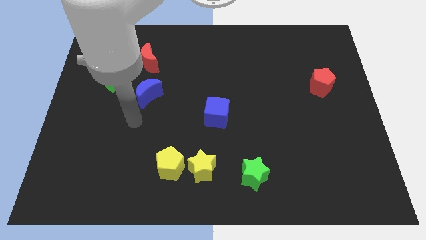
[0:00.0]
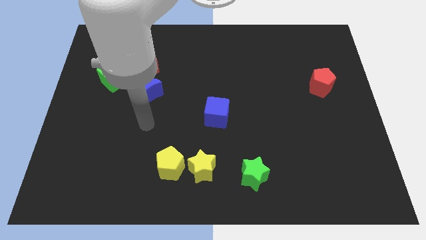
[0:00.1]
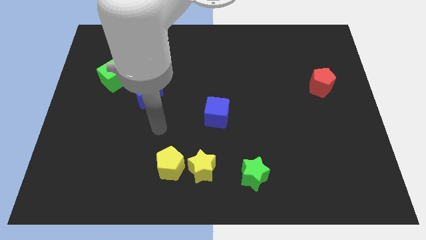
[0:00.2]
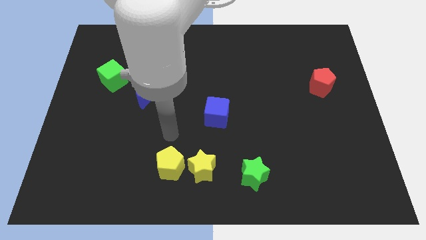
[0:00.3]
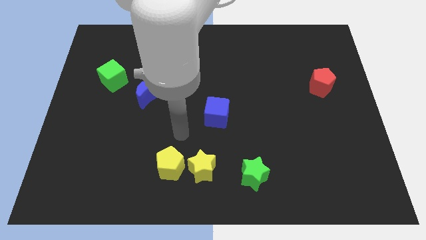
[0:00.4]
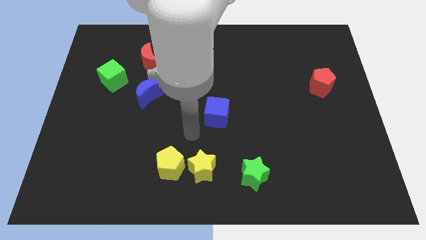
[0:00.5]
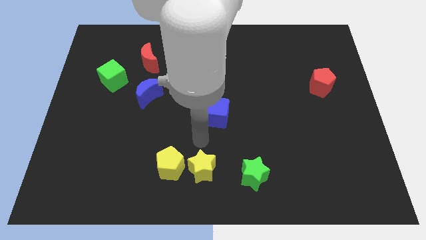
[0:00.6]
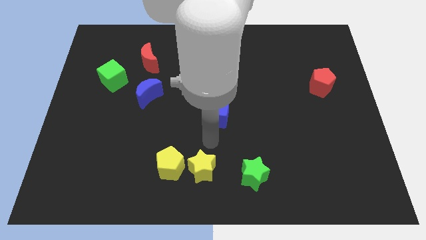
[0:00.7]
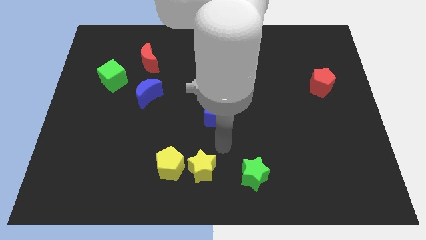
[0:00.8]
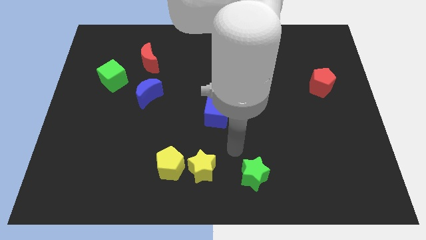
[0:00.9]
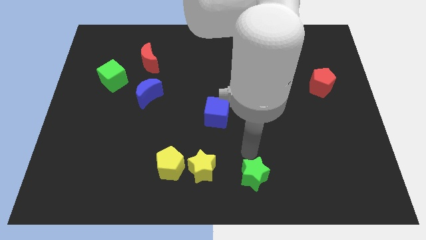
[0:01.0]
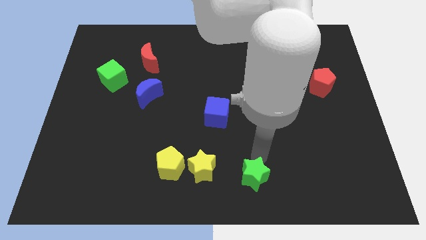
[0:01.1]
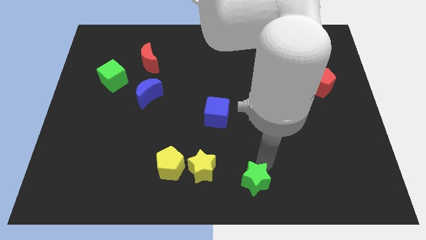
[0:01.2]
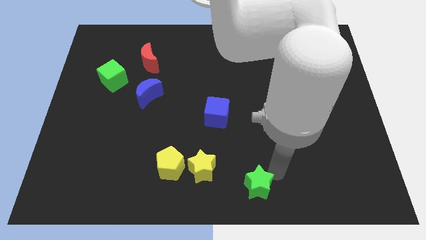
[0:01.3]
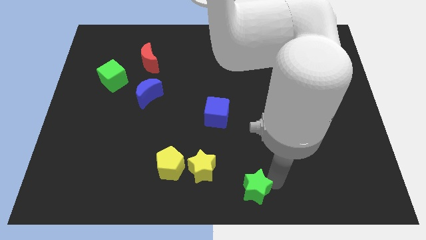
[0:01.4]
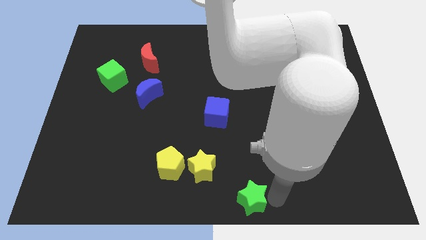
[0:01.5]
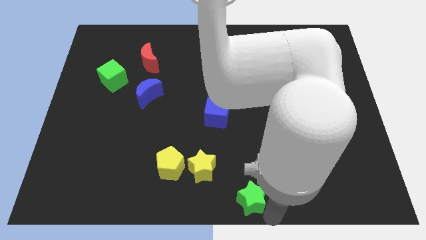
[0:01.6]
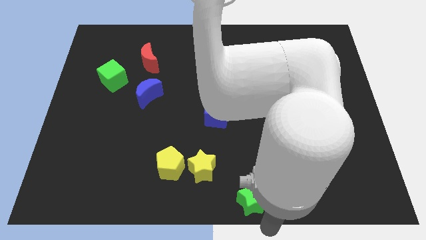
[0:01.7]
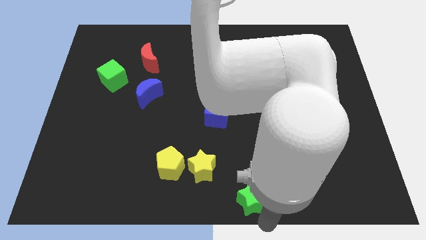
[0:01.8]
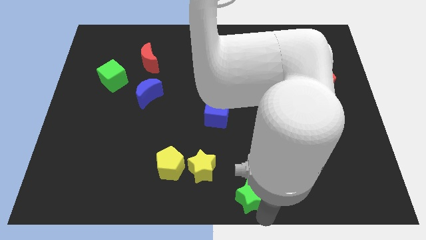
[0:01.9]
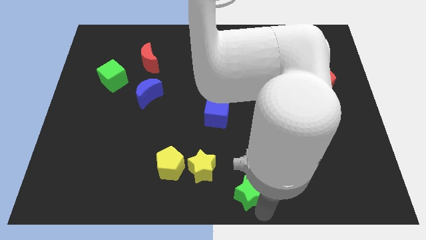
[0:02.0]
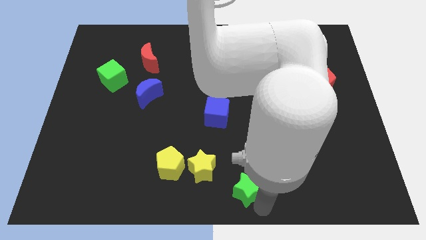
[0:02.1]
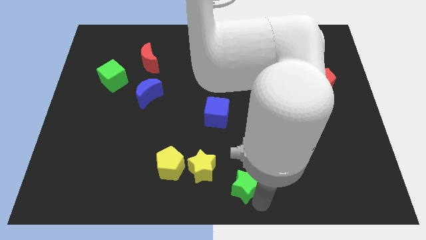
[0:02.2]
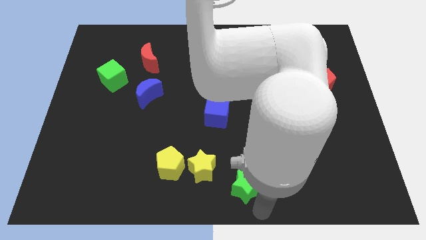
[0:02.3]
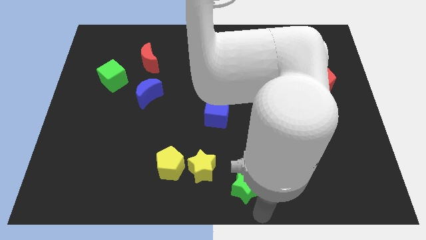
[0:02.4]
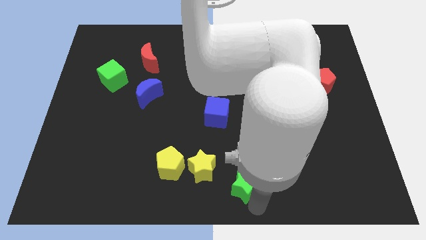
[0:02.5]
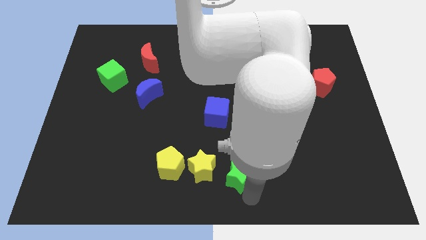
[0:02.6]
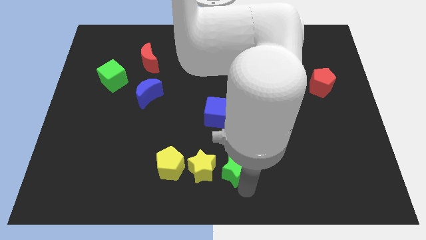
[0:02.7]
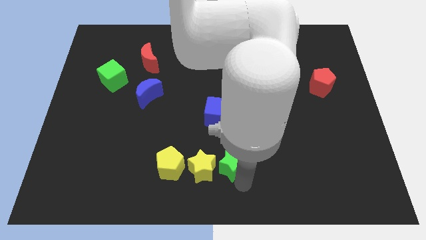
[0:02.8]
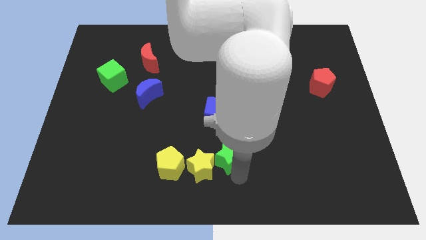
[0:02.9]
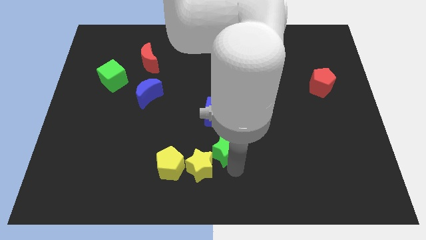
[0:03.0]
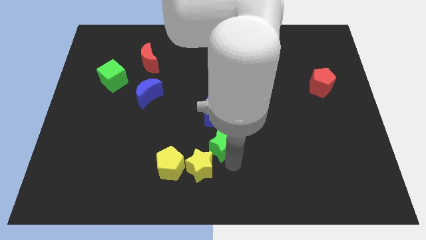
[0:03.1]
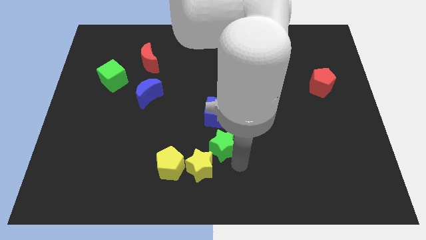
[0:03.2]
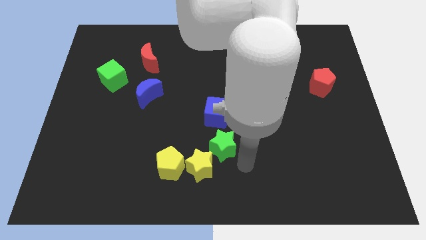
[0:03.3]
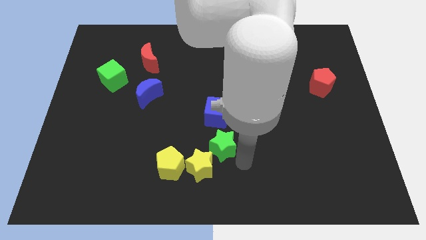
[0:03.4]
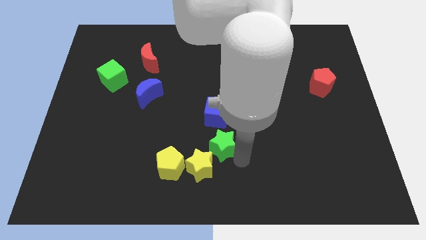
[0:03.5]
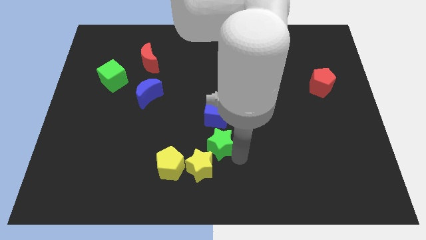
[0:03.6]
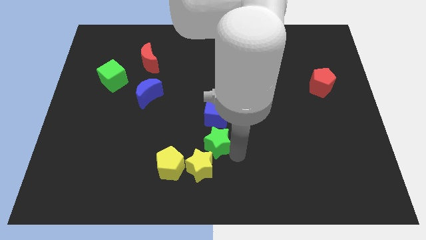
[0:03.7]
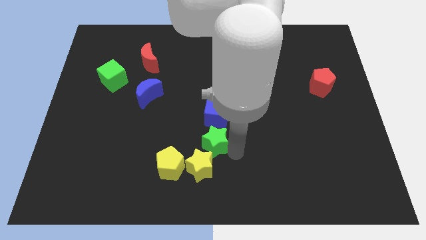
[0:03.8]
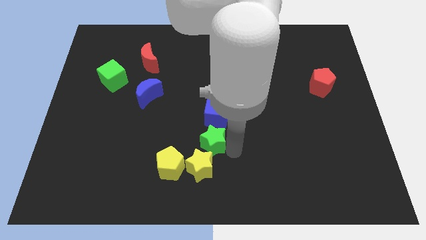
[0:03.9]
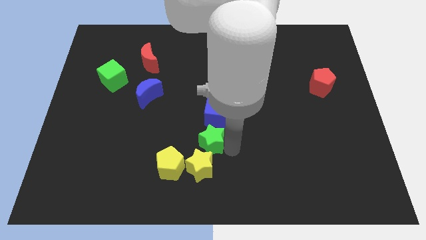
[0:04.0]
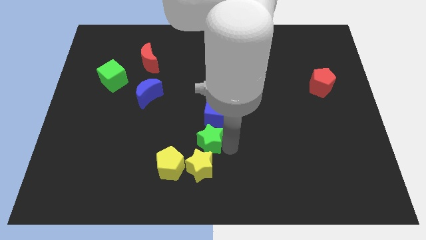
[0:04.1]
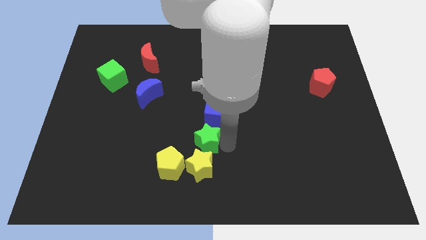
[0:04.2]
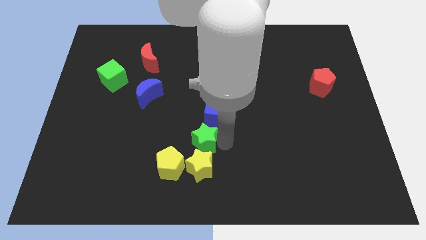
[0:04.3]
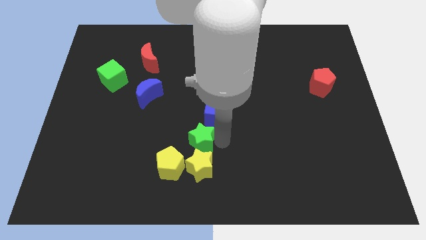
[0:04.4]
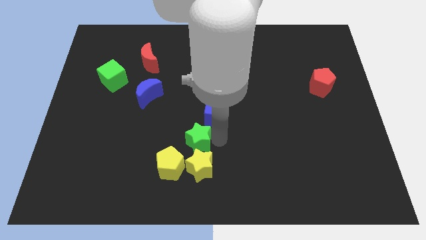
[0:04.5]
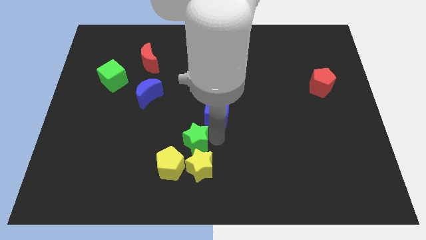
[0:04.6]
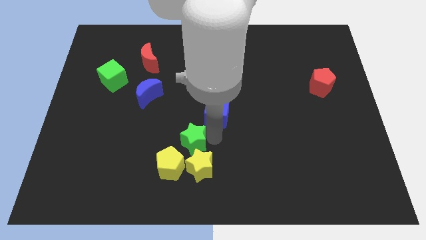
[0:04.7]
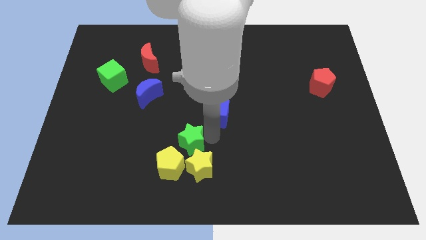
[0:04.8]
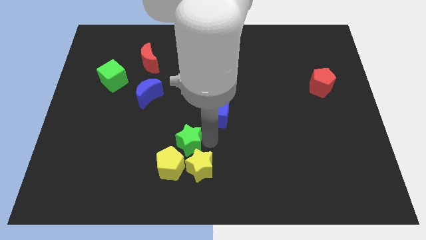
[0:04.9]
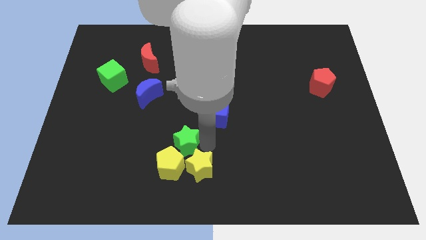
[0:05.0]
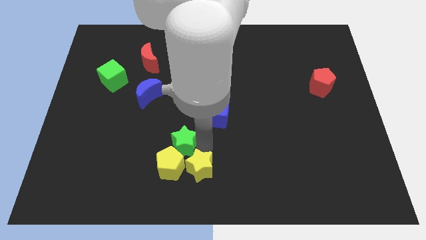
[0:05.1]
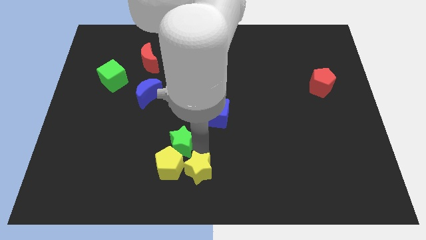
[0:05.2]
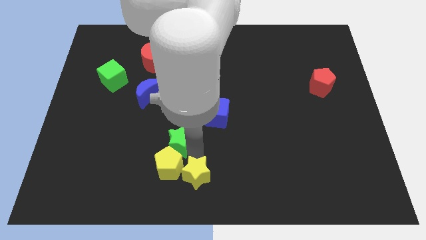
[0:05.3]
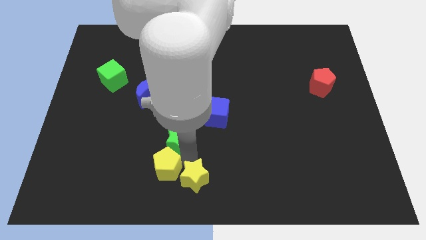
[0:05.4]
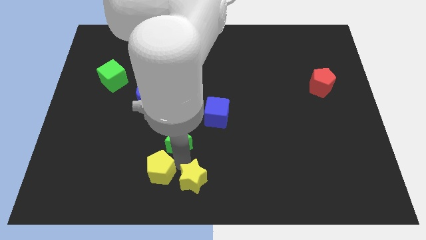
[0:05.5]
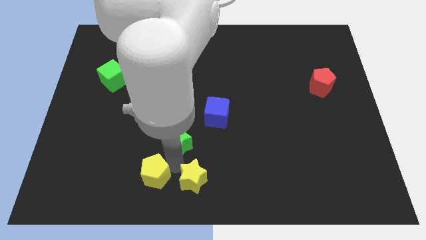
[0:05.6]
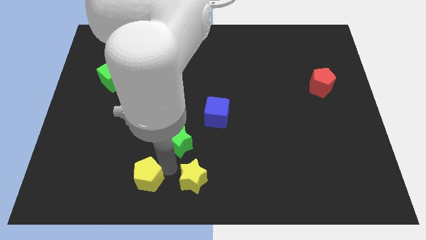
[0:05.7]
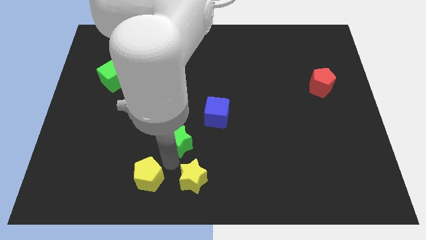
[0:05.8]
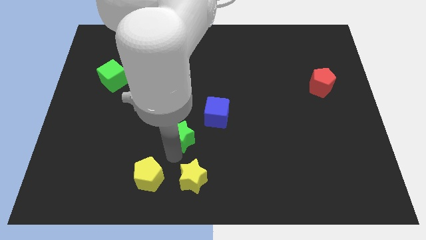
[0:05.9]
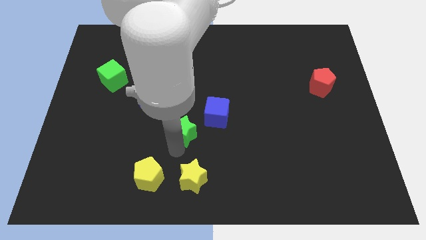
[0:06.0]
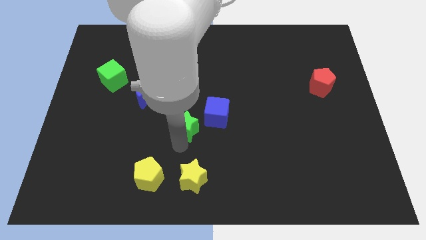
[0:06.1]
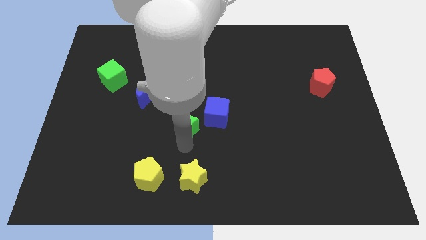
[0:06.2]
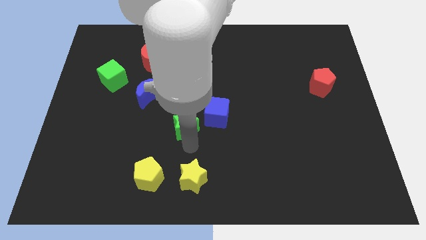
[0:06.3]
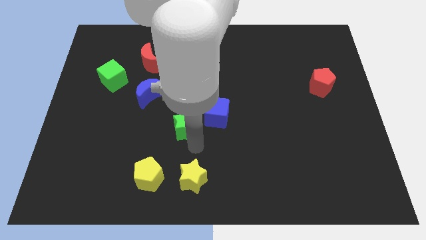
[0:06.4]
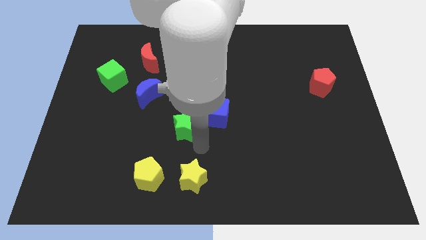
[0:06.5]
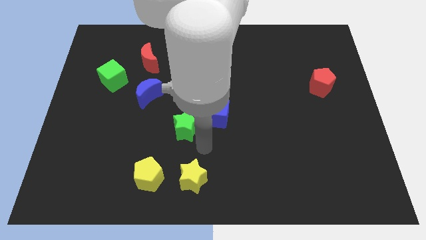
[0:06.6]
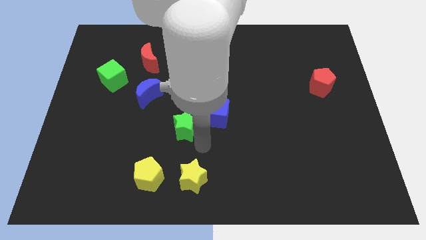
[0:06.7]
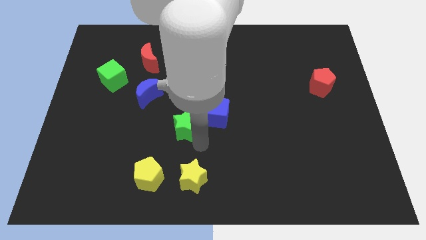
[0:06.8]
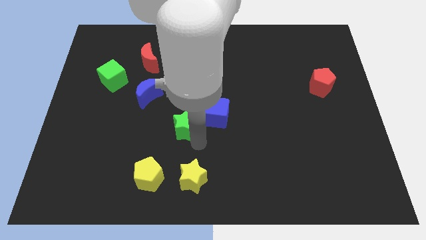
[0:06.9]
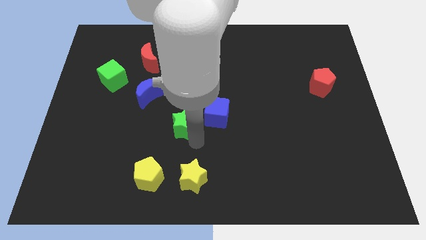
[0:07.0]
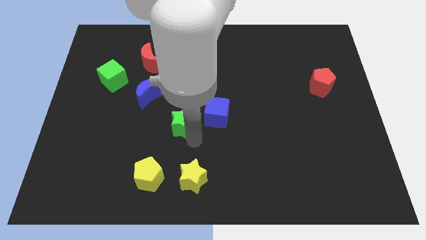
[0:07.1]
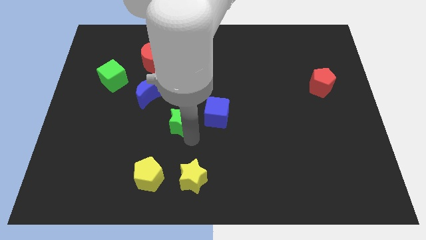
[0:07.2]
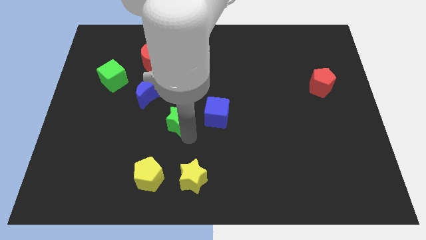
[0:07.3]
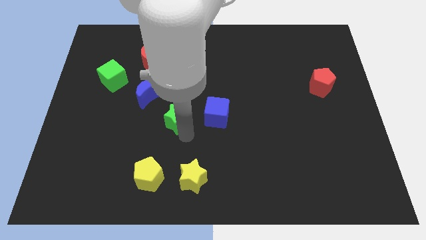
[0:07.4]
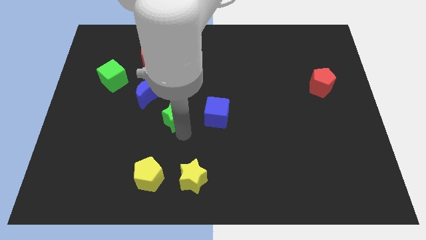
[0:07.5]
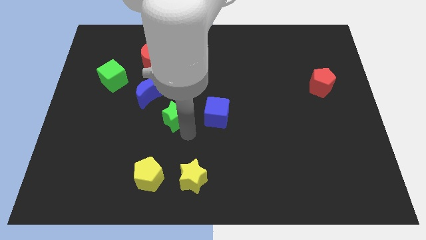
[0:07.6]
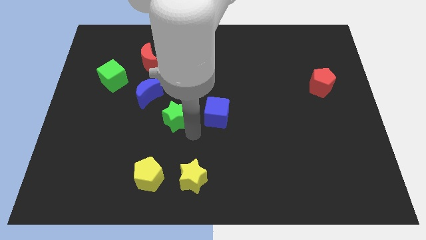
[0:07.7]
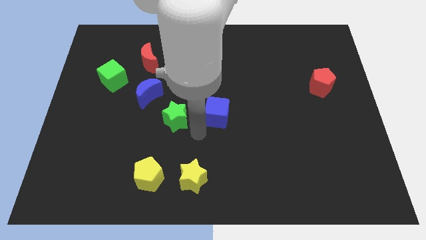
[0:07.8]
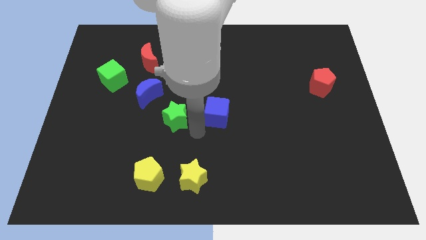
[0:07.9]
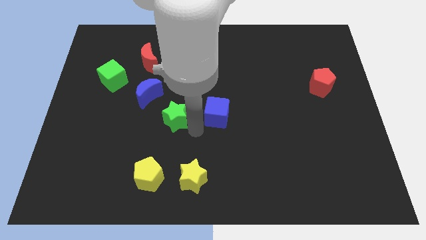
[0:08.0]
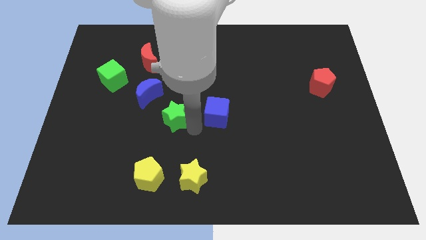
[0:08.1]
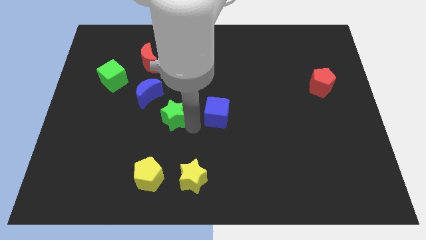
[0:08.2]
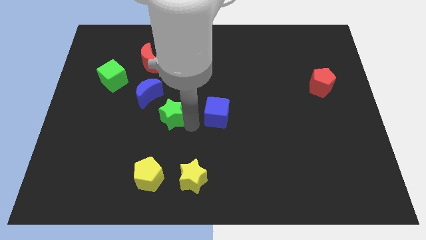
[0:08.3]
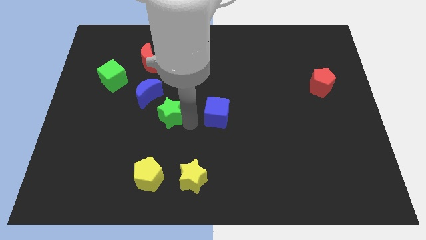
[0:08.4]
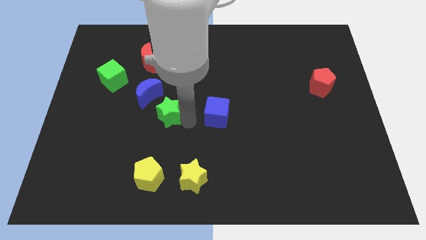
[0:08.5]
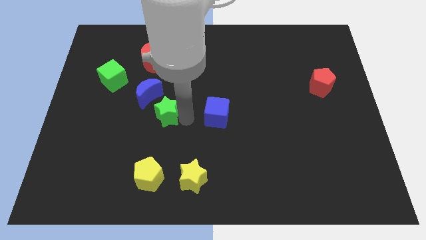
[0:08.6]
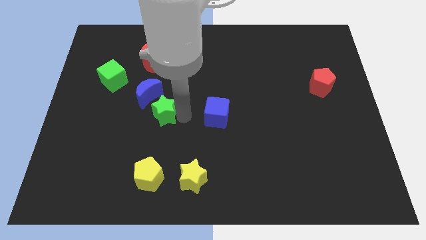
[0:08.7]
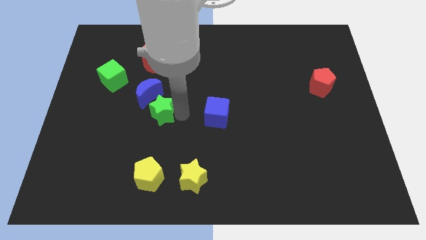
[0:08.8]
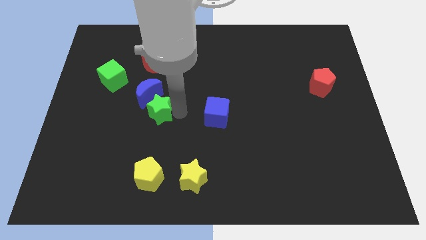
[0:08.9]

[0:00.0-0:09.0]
push the green star to the blue moon
